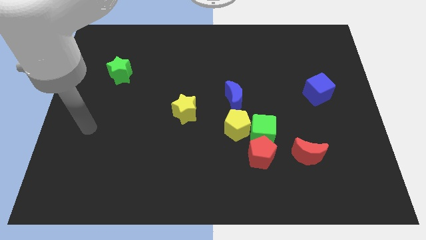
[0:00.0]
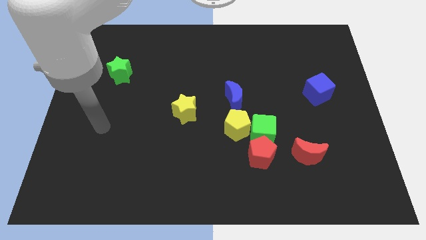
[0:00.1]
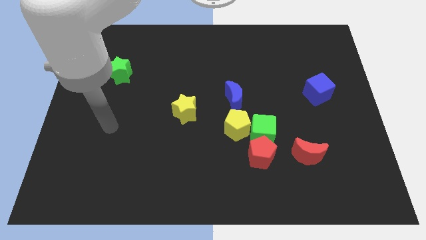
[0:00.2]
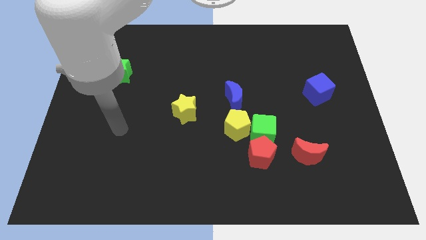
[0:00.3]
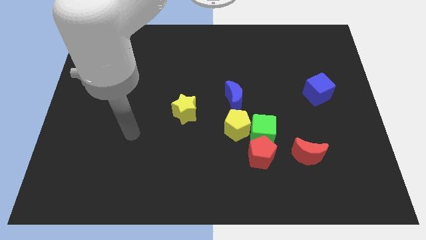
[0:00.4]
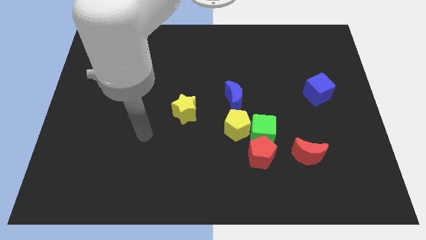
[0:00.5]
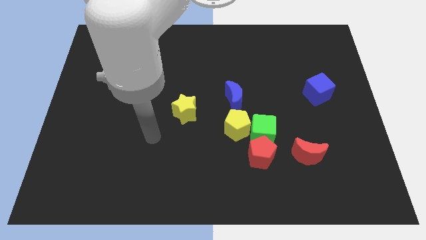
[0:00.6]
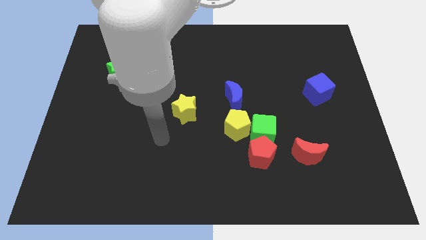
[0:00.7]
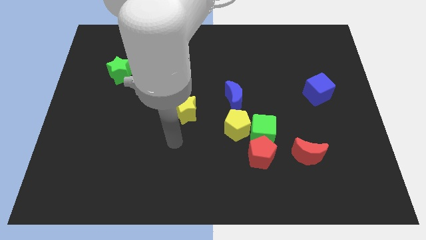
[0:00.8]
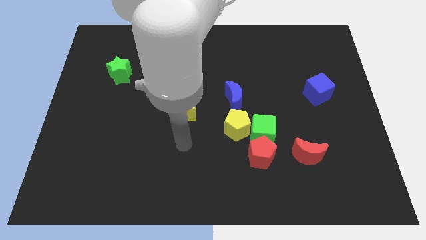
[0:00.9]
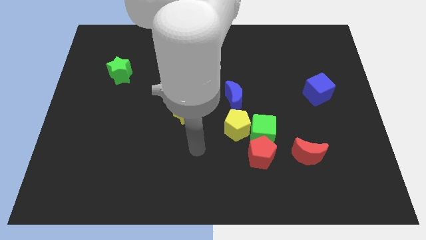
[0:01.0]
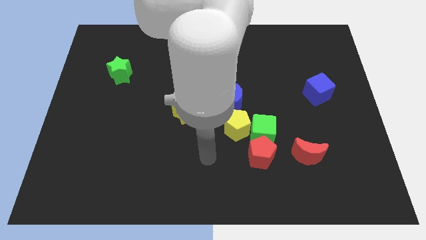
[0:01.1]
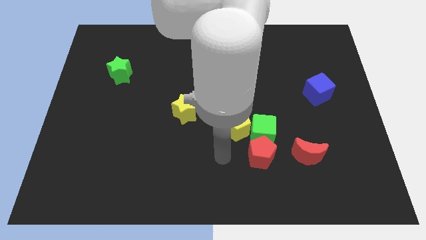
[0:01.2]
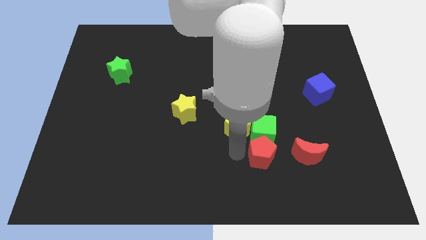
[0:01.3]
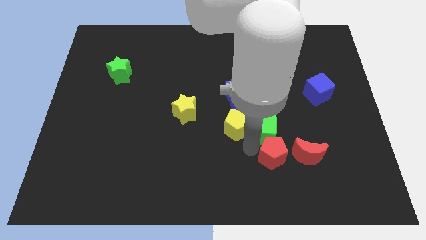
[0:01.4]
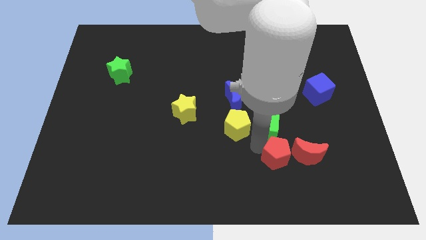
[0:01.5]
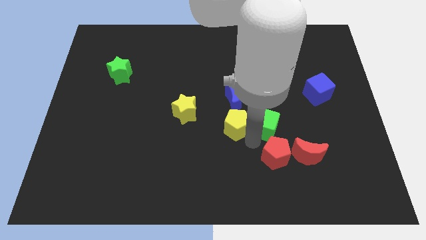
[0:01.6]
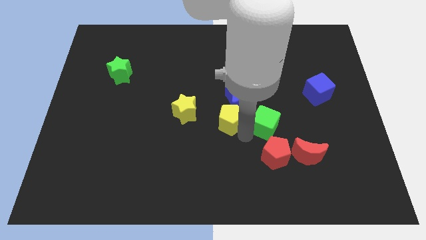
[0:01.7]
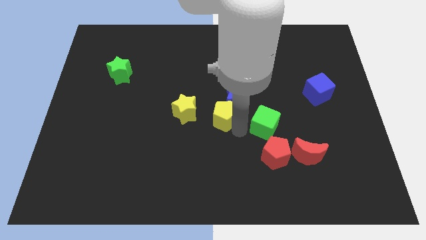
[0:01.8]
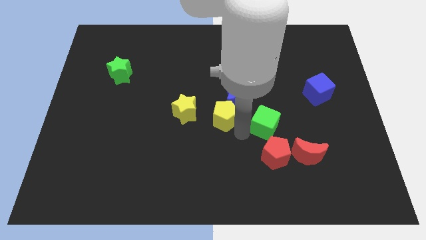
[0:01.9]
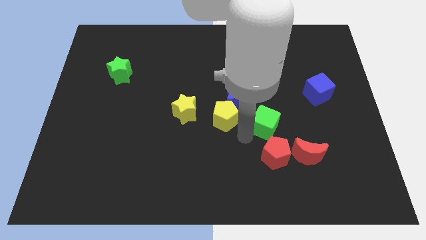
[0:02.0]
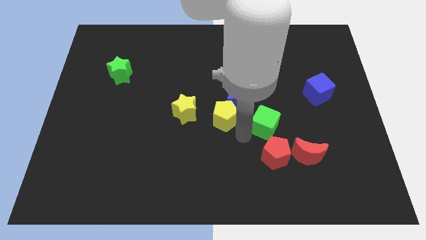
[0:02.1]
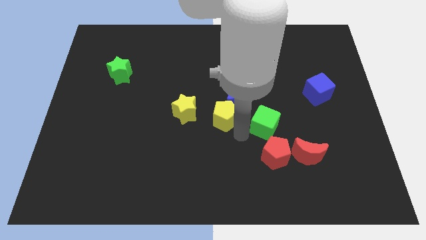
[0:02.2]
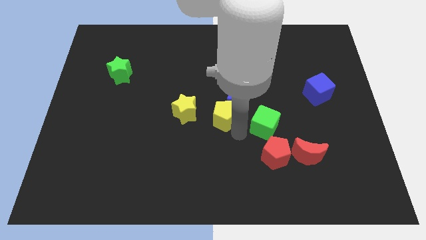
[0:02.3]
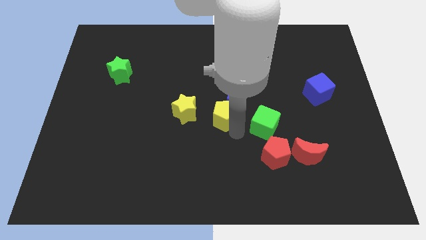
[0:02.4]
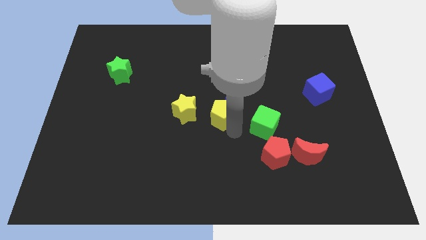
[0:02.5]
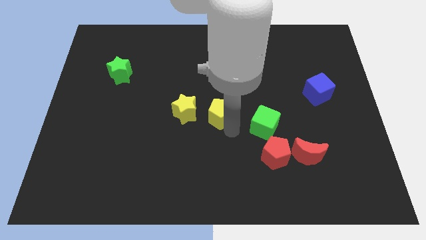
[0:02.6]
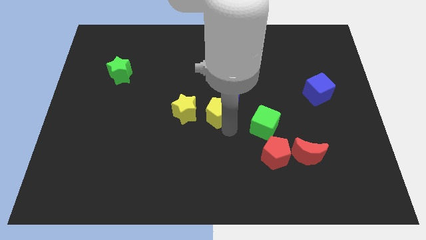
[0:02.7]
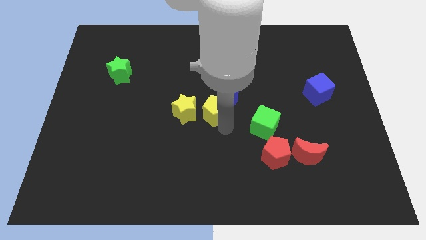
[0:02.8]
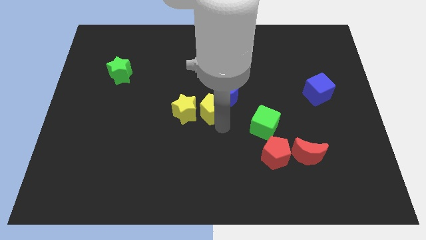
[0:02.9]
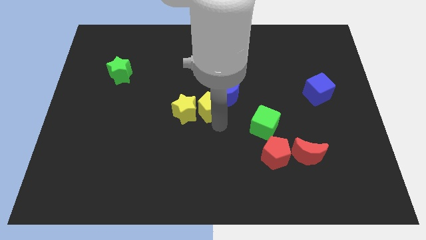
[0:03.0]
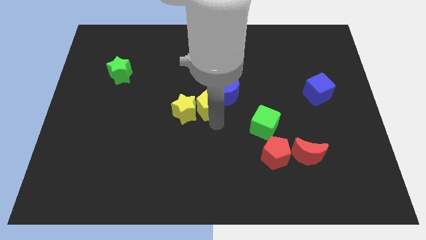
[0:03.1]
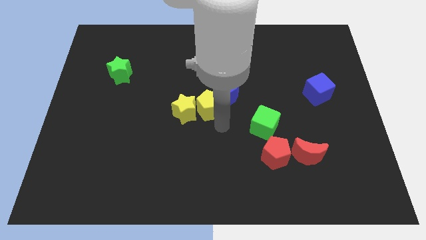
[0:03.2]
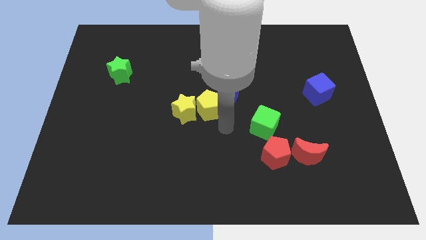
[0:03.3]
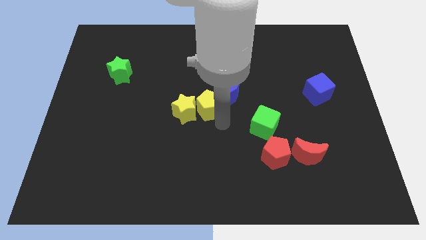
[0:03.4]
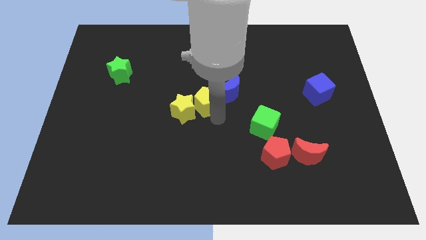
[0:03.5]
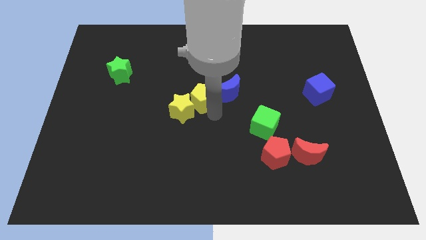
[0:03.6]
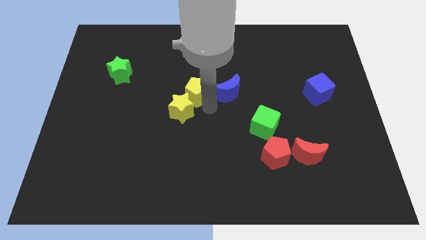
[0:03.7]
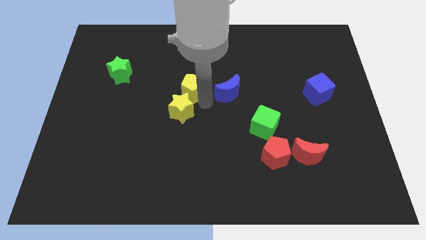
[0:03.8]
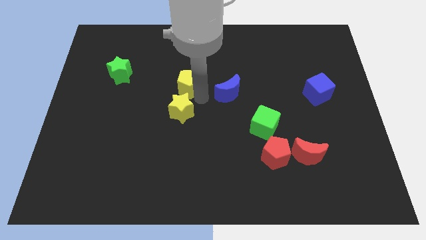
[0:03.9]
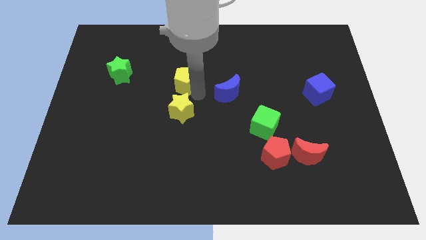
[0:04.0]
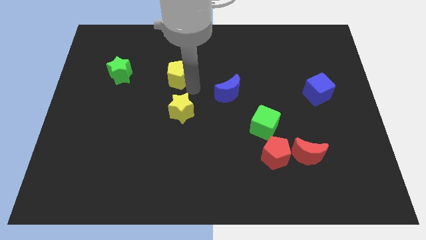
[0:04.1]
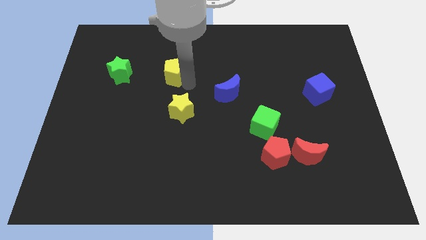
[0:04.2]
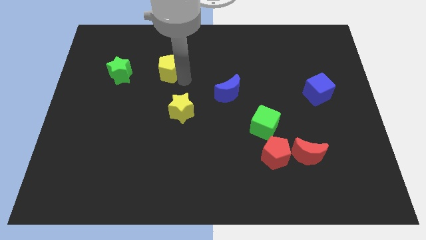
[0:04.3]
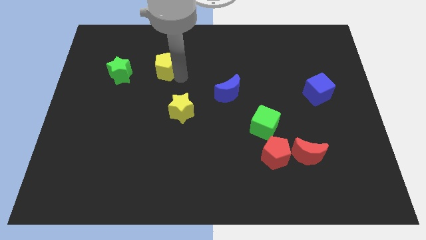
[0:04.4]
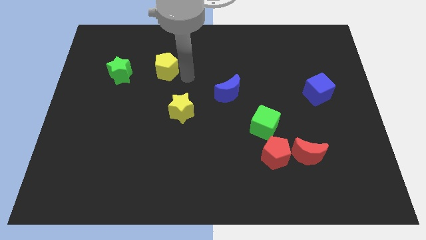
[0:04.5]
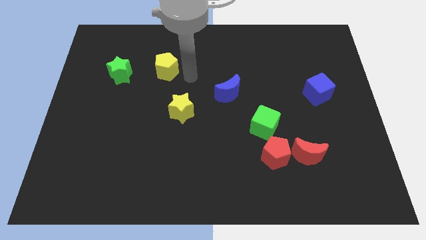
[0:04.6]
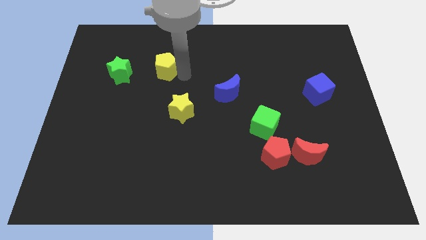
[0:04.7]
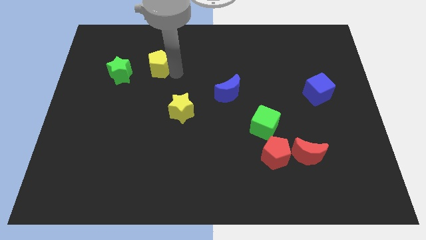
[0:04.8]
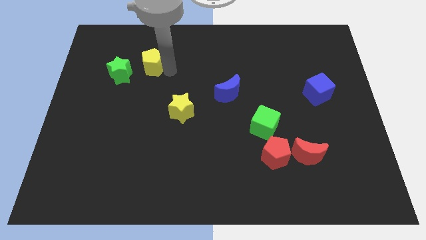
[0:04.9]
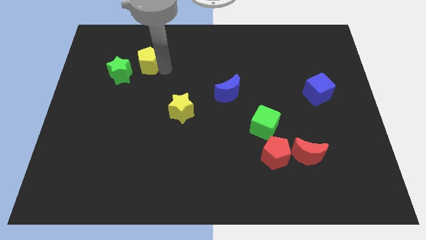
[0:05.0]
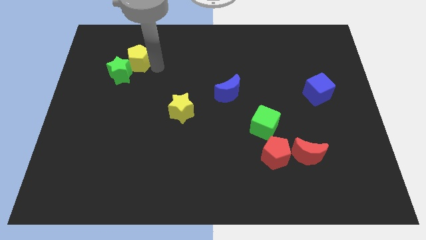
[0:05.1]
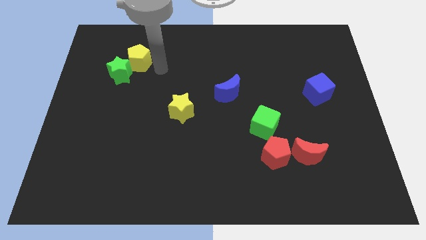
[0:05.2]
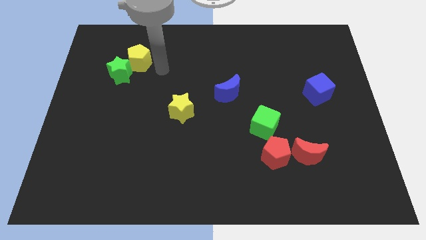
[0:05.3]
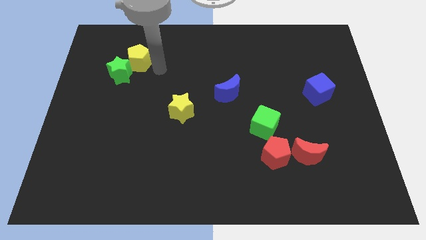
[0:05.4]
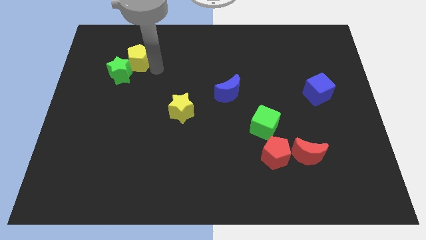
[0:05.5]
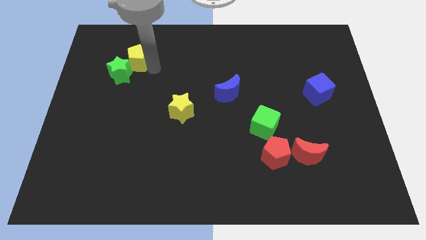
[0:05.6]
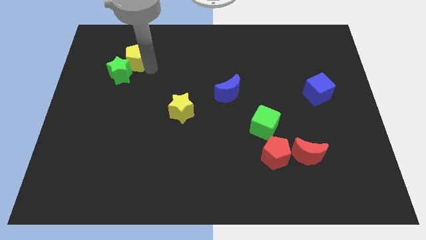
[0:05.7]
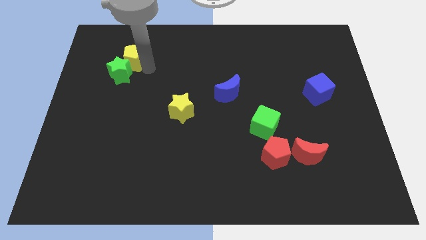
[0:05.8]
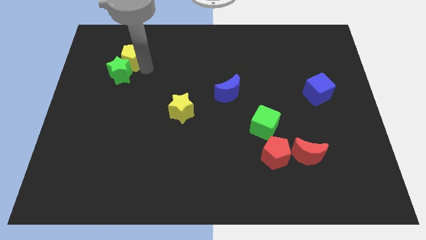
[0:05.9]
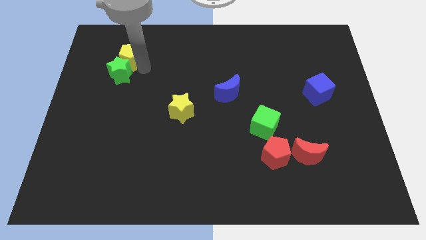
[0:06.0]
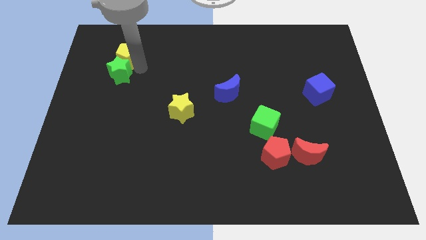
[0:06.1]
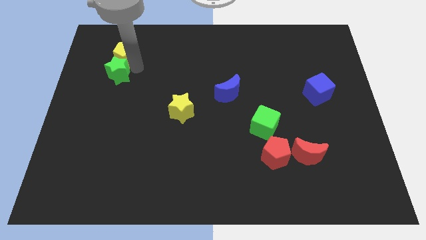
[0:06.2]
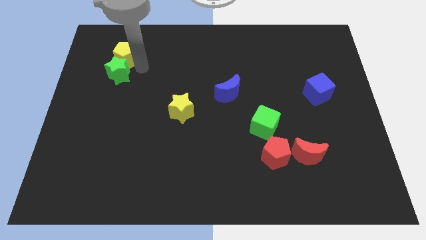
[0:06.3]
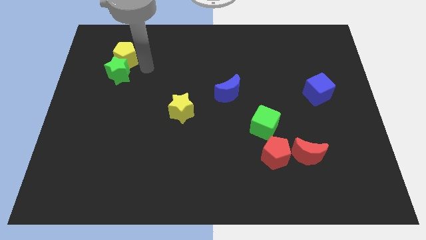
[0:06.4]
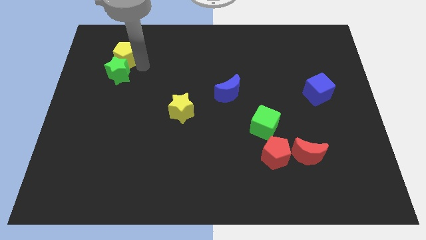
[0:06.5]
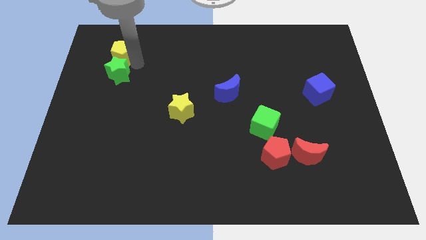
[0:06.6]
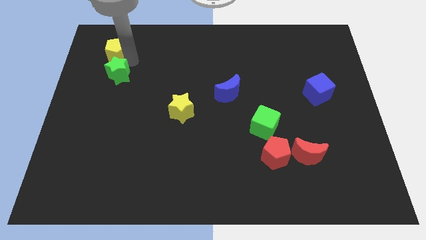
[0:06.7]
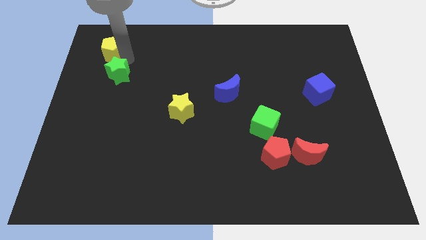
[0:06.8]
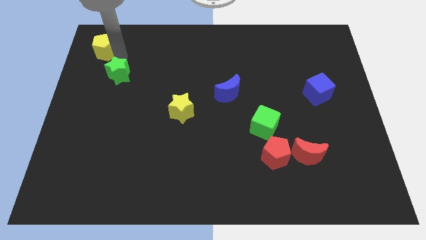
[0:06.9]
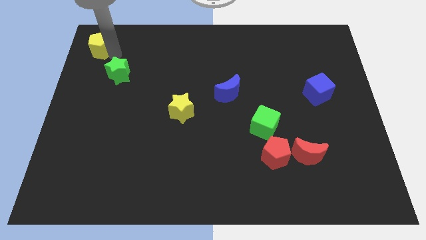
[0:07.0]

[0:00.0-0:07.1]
move the yellow pentagon to the top left
